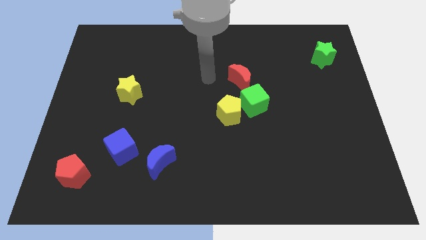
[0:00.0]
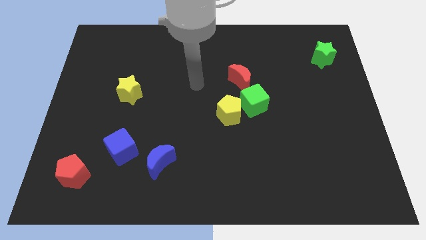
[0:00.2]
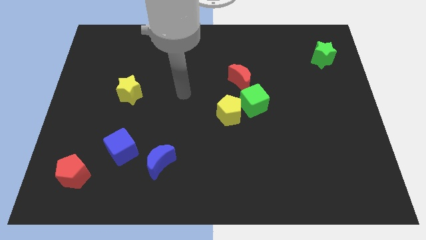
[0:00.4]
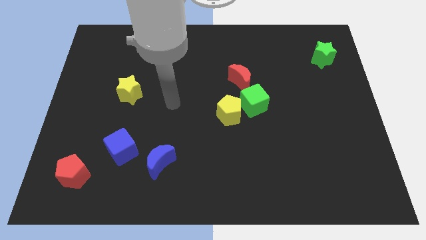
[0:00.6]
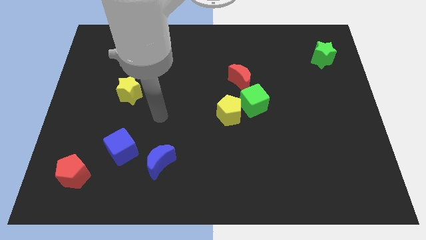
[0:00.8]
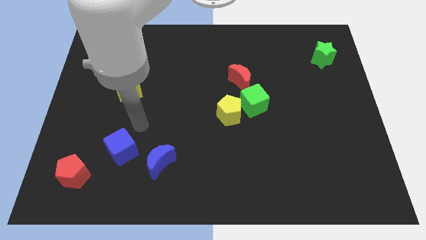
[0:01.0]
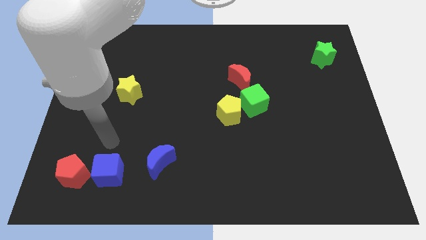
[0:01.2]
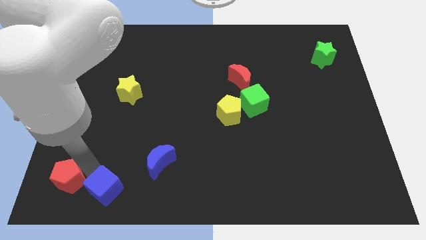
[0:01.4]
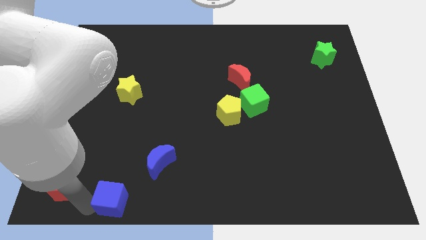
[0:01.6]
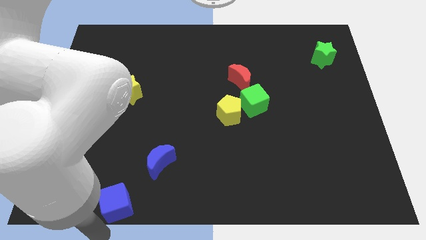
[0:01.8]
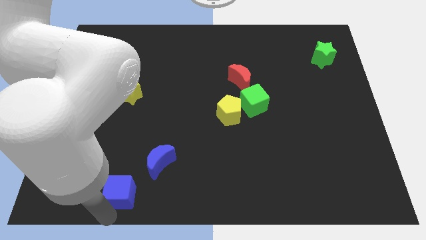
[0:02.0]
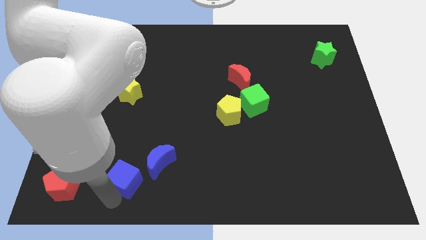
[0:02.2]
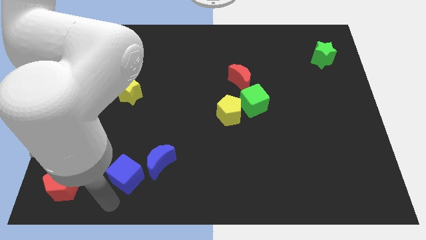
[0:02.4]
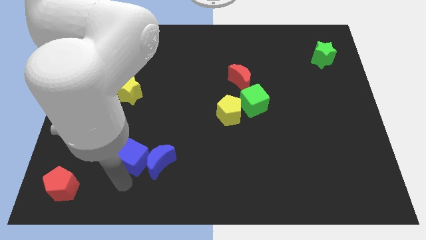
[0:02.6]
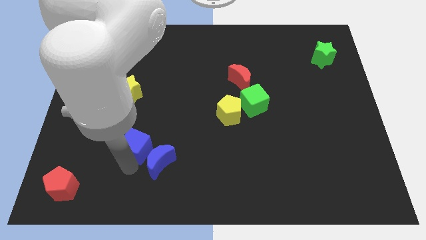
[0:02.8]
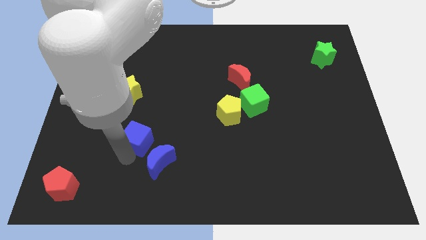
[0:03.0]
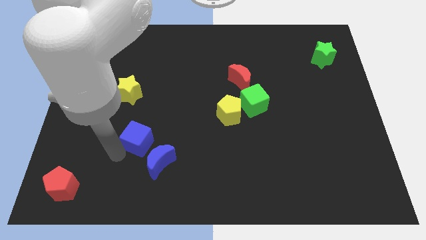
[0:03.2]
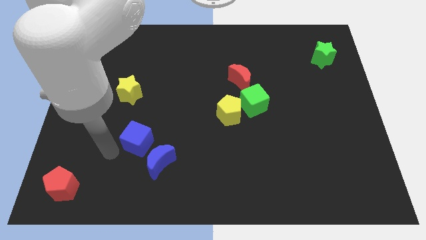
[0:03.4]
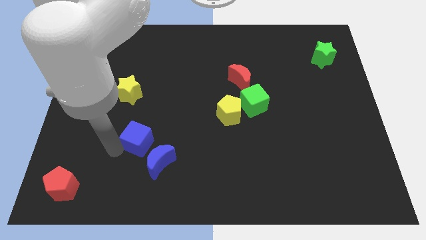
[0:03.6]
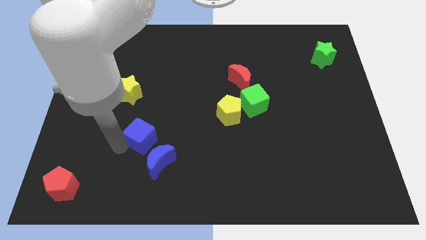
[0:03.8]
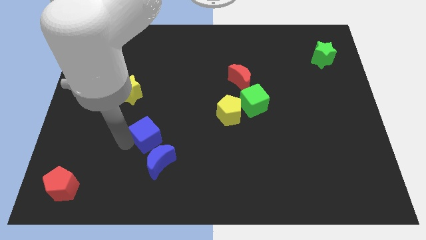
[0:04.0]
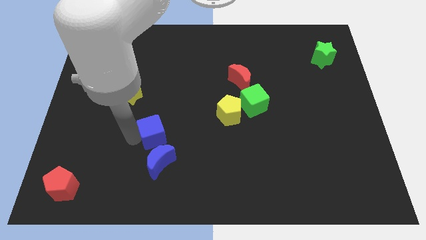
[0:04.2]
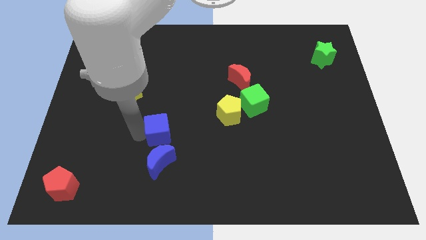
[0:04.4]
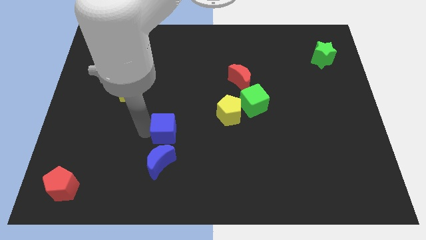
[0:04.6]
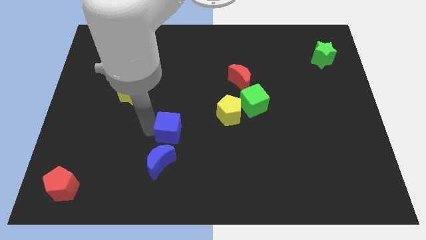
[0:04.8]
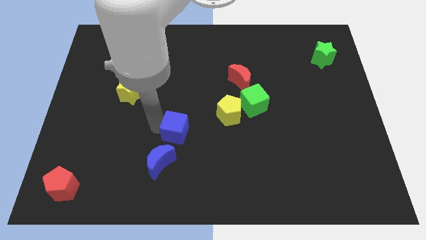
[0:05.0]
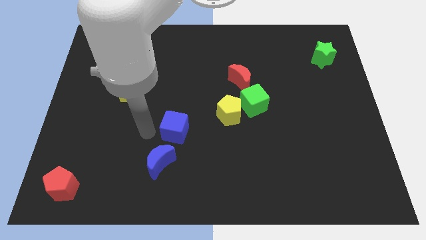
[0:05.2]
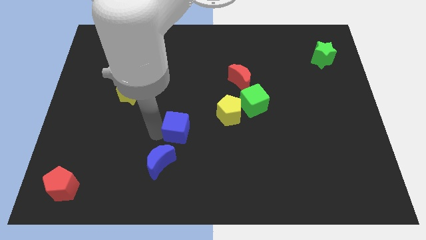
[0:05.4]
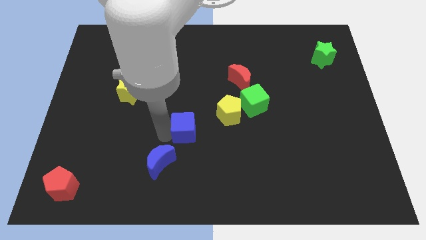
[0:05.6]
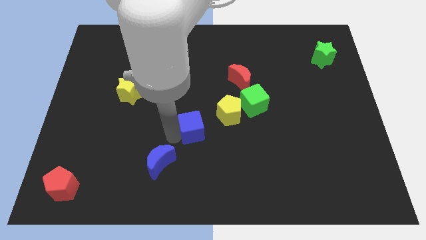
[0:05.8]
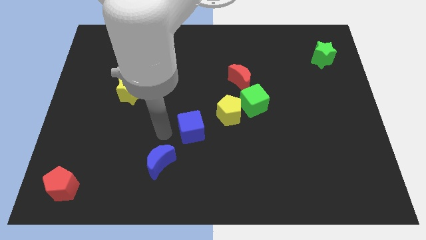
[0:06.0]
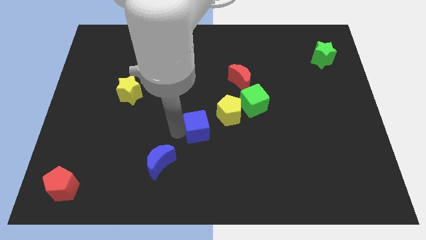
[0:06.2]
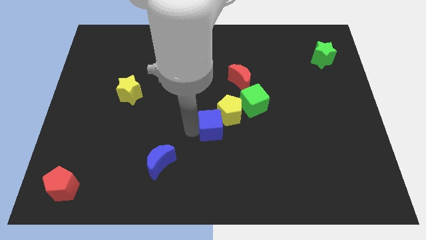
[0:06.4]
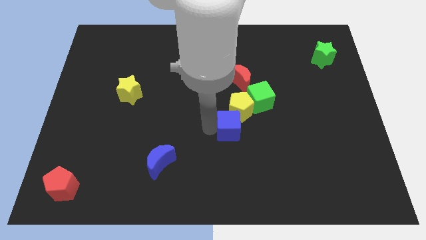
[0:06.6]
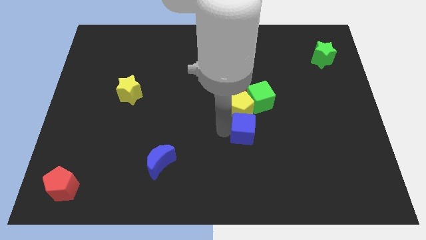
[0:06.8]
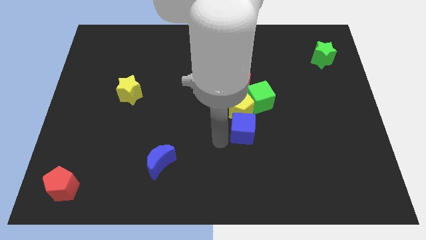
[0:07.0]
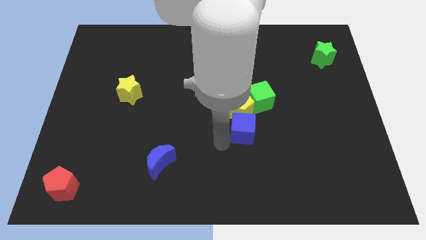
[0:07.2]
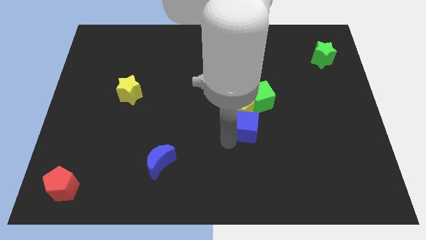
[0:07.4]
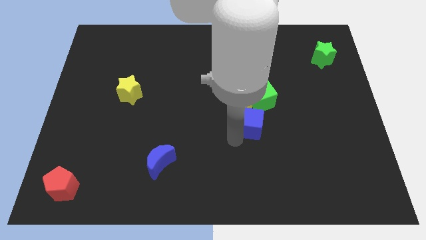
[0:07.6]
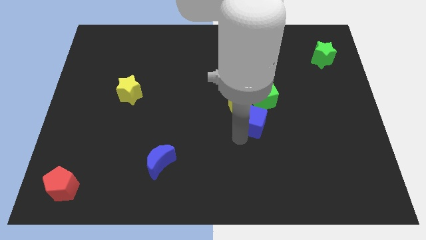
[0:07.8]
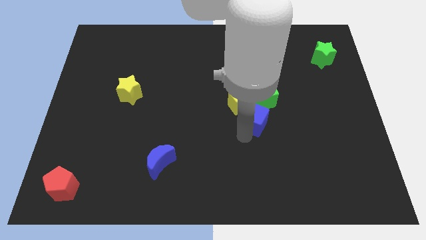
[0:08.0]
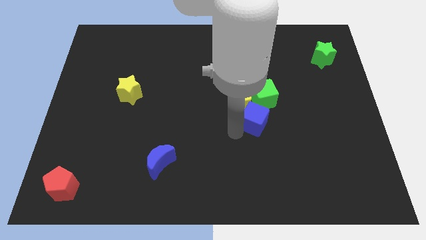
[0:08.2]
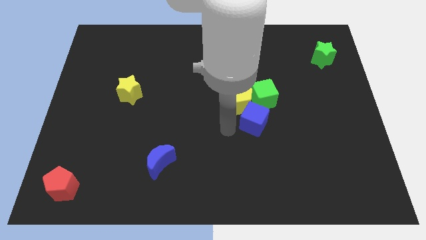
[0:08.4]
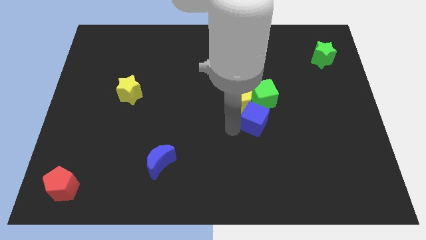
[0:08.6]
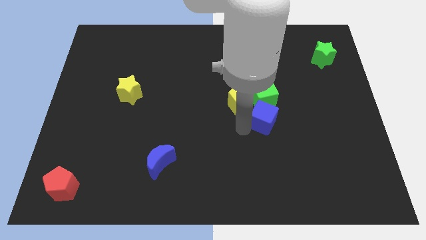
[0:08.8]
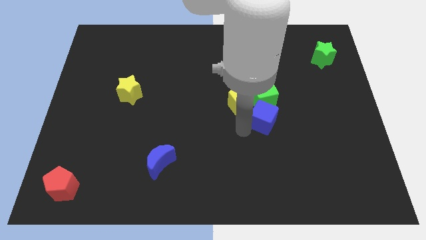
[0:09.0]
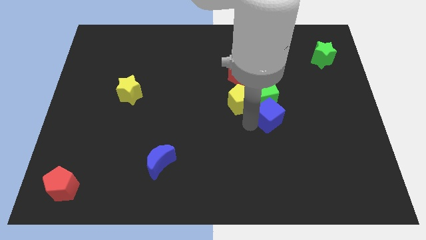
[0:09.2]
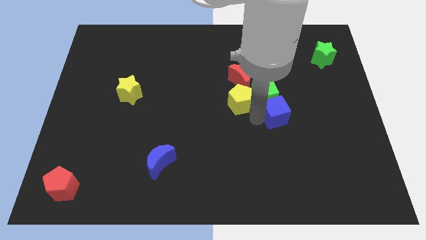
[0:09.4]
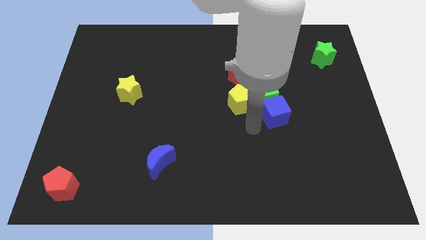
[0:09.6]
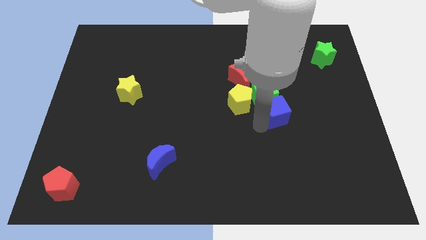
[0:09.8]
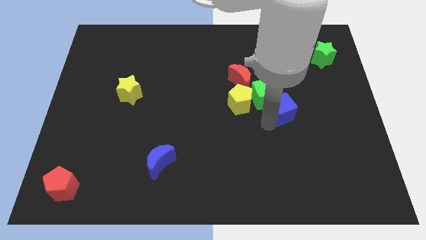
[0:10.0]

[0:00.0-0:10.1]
push the blue cube just right of the green cube

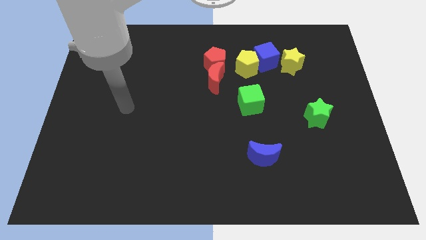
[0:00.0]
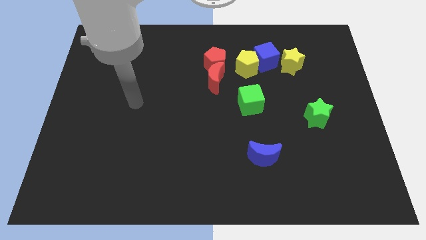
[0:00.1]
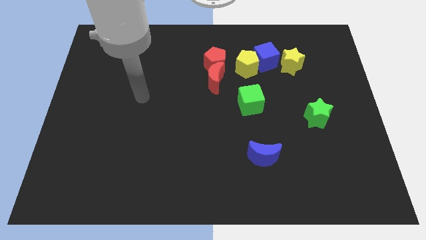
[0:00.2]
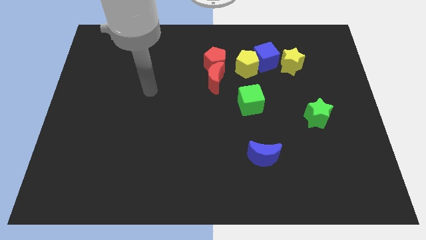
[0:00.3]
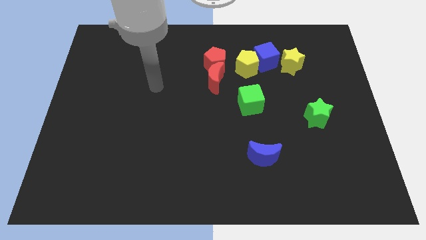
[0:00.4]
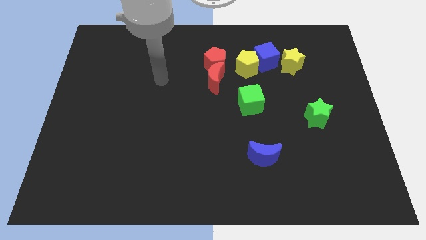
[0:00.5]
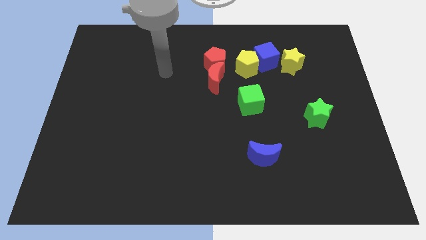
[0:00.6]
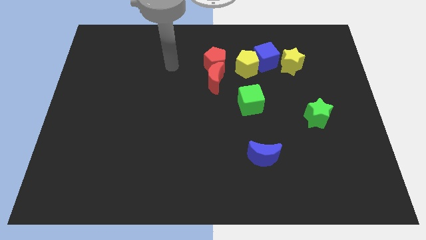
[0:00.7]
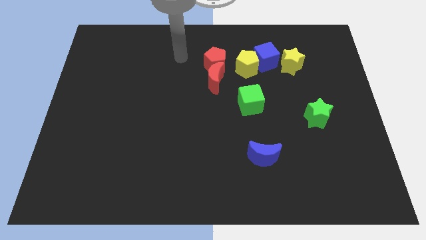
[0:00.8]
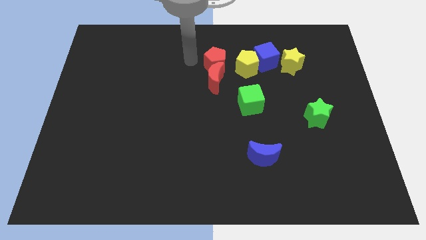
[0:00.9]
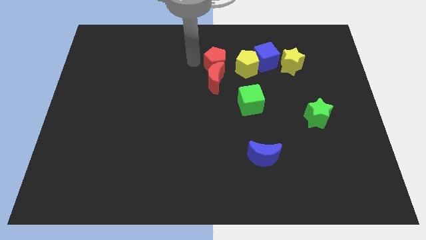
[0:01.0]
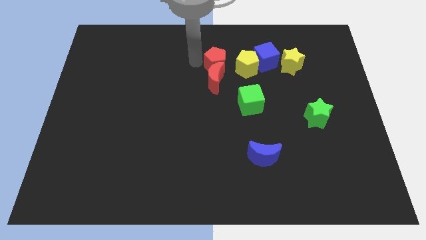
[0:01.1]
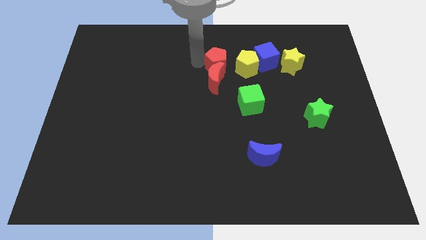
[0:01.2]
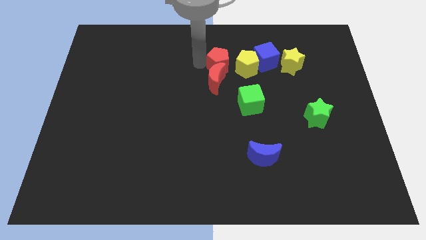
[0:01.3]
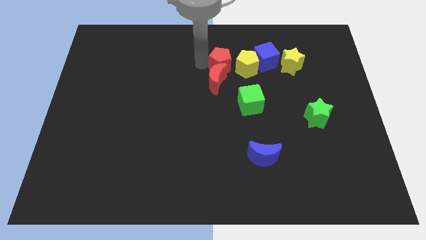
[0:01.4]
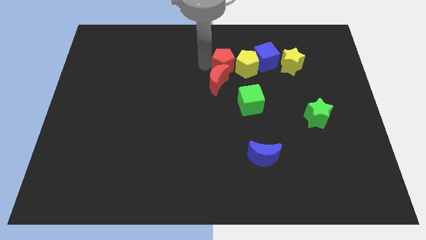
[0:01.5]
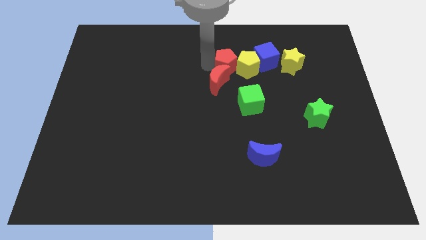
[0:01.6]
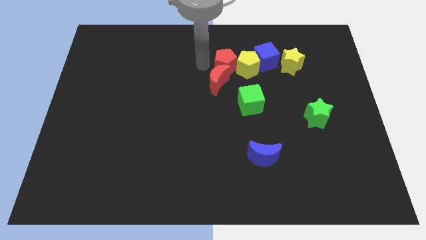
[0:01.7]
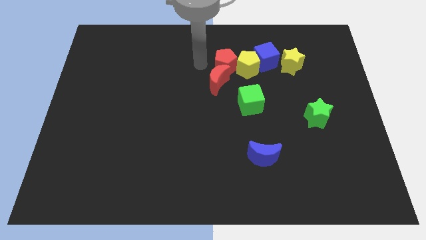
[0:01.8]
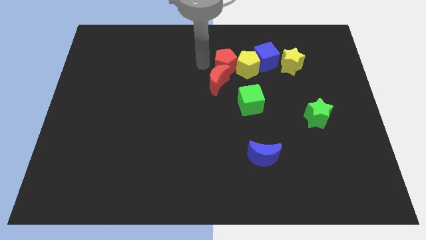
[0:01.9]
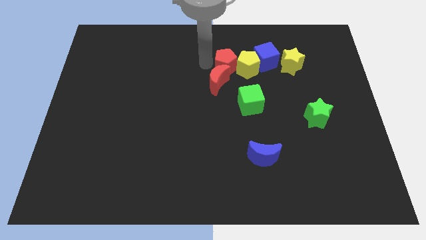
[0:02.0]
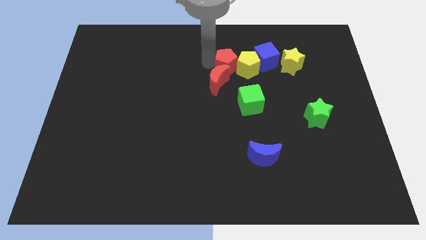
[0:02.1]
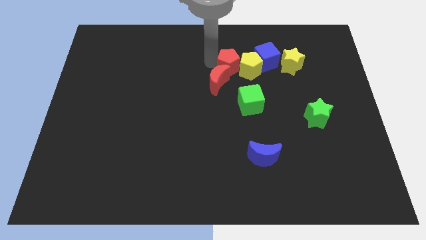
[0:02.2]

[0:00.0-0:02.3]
slide the red pentagon to the left side of the yellow star
